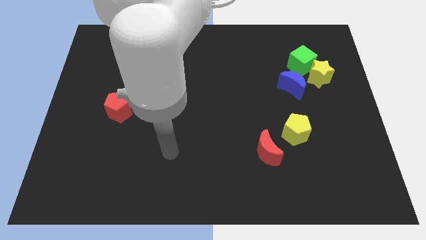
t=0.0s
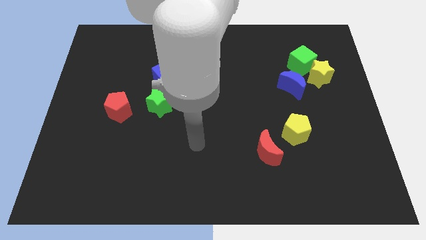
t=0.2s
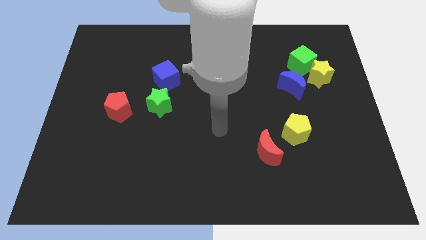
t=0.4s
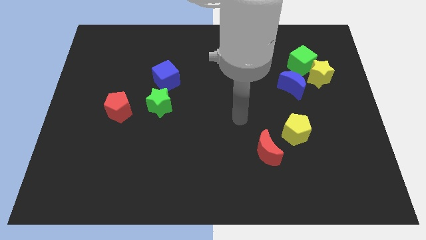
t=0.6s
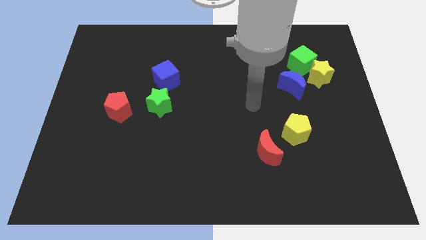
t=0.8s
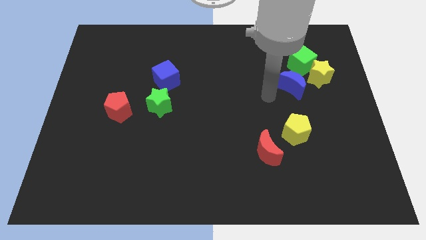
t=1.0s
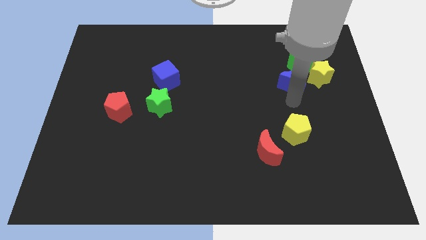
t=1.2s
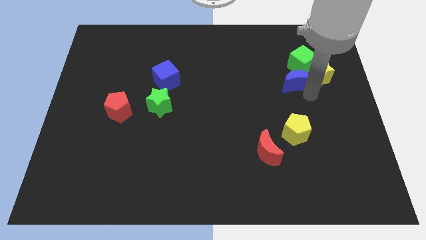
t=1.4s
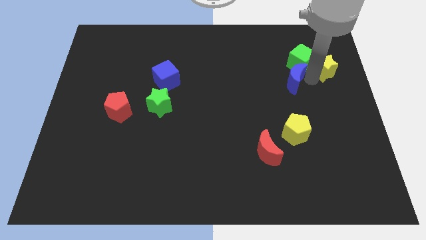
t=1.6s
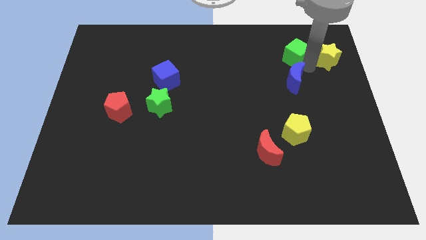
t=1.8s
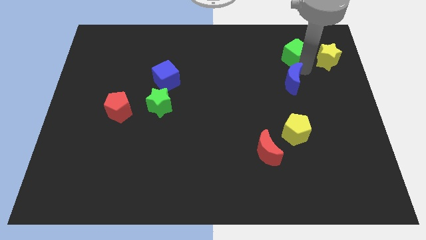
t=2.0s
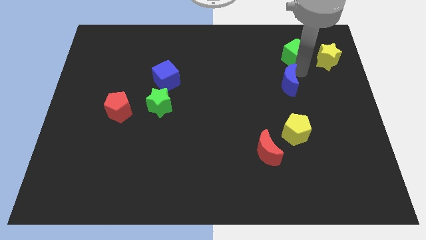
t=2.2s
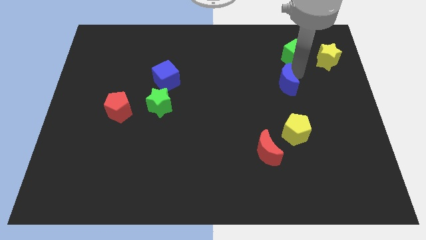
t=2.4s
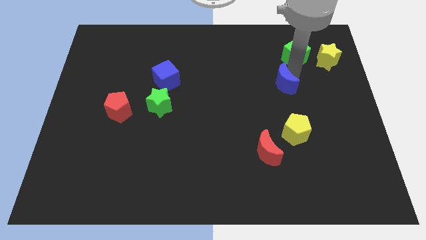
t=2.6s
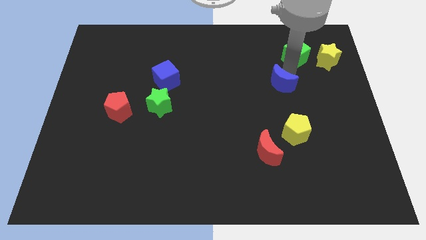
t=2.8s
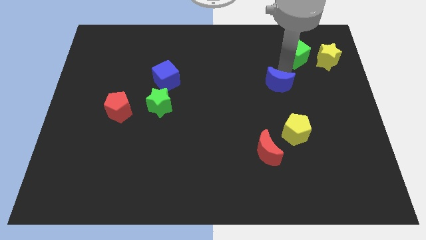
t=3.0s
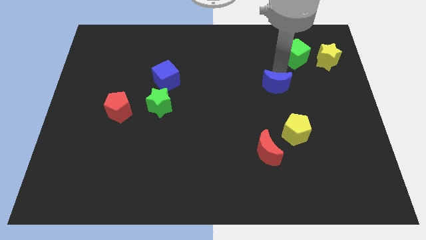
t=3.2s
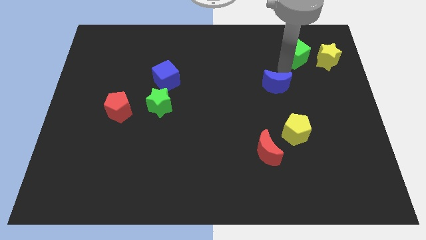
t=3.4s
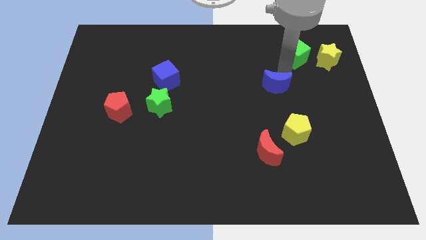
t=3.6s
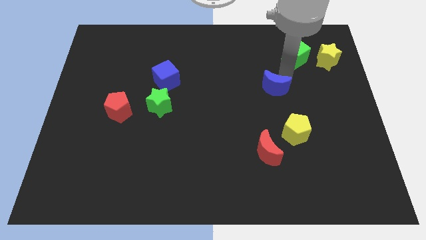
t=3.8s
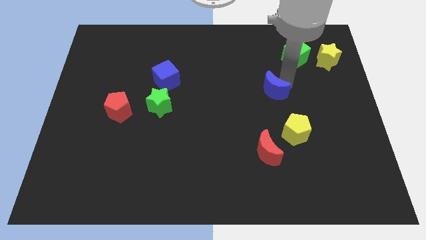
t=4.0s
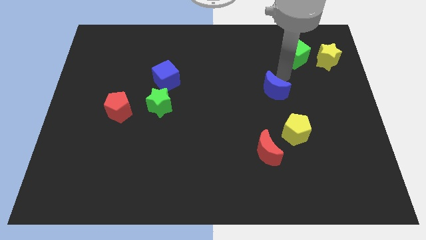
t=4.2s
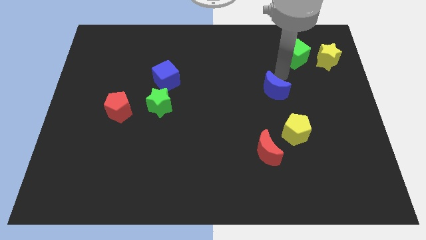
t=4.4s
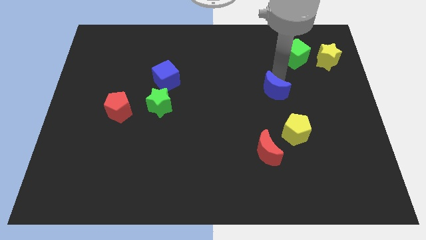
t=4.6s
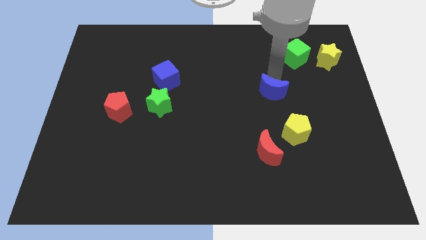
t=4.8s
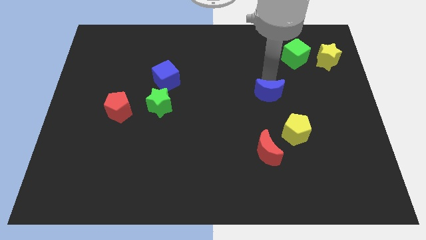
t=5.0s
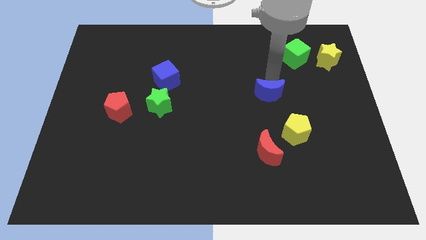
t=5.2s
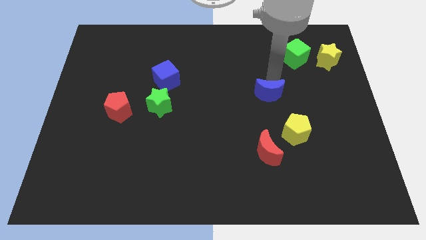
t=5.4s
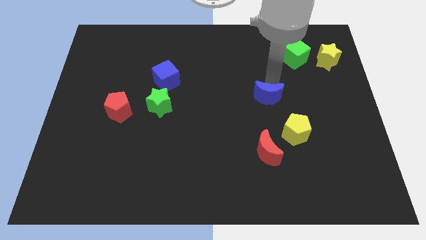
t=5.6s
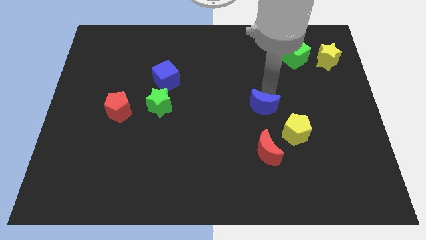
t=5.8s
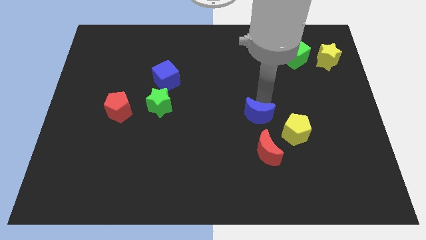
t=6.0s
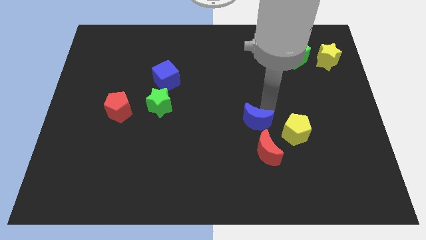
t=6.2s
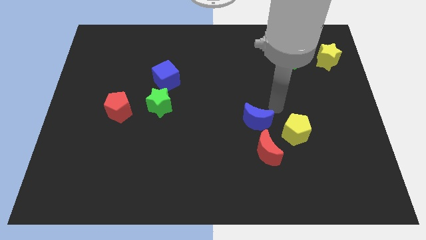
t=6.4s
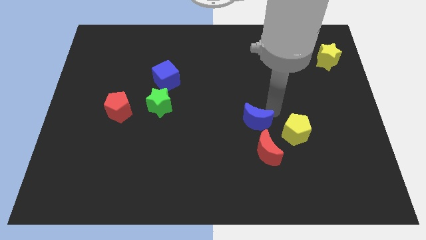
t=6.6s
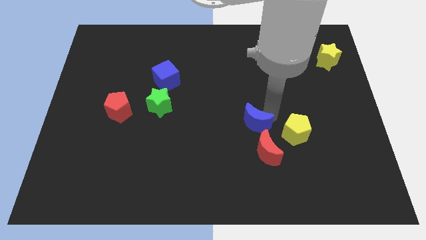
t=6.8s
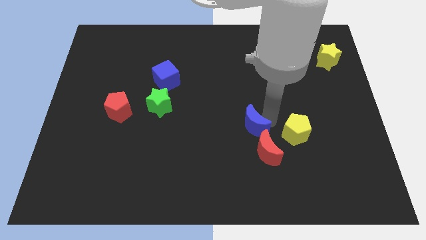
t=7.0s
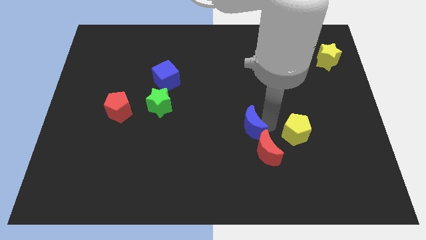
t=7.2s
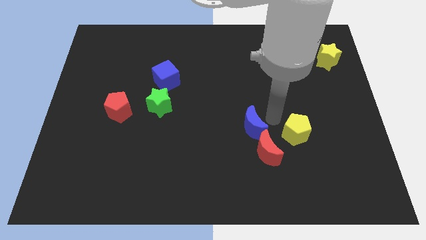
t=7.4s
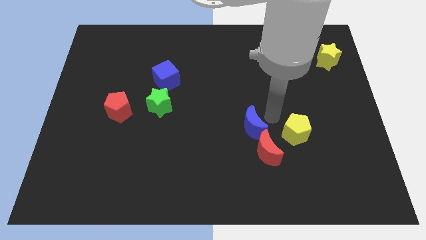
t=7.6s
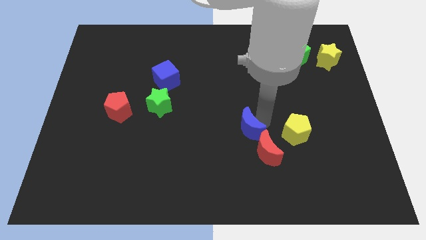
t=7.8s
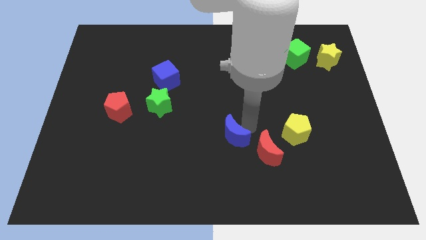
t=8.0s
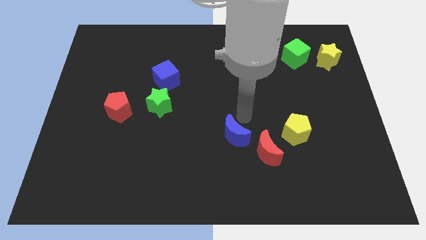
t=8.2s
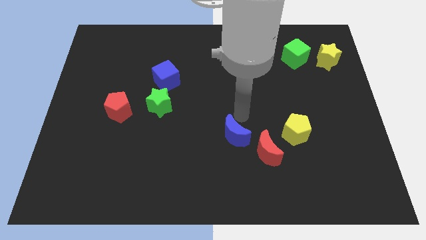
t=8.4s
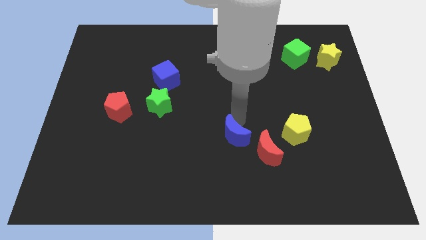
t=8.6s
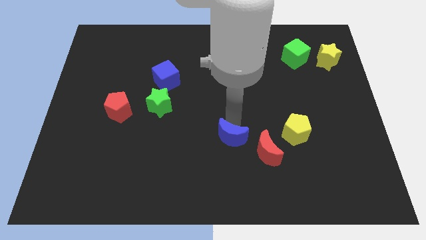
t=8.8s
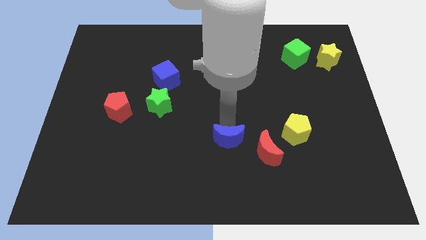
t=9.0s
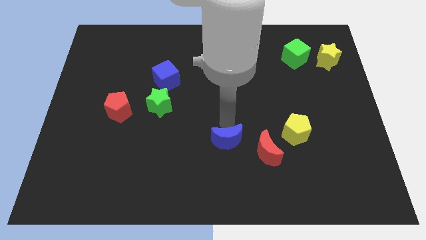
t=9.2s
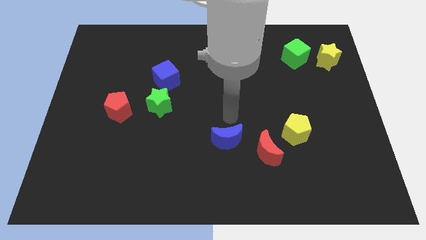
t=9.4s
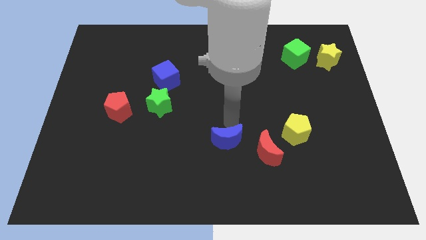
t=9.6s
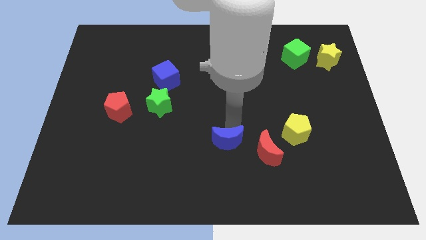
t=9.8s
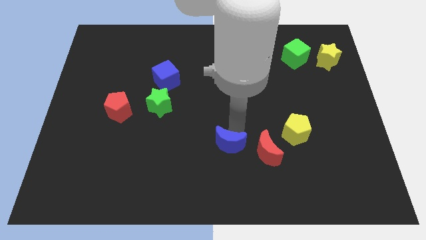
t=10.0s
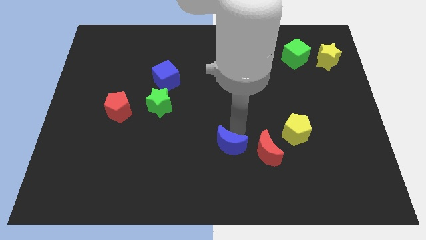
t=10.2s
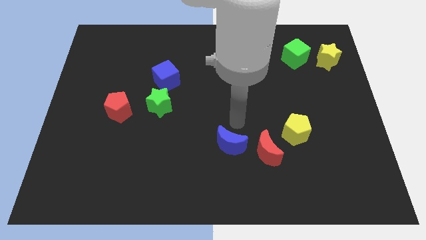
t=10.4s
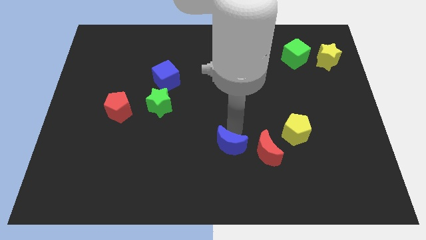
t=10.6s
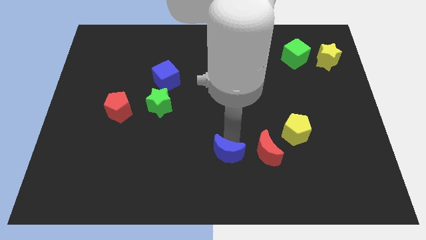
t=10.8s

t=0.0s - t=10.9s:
move the blue moon to the bottom
